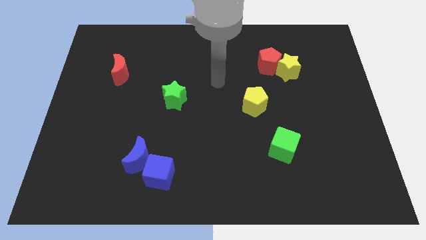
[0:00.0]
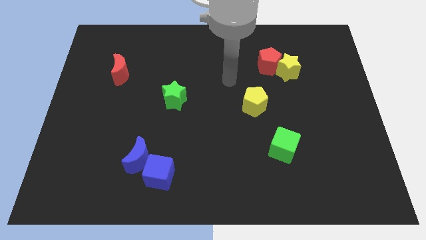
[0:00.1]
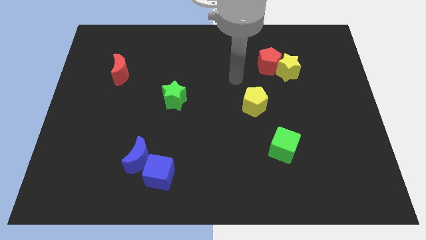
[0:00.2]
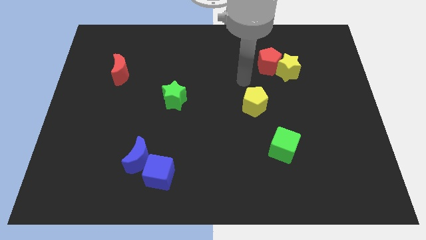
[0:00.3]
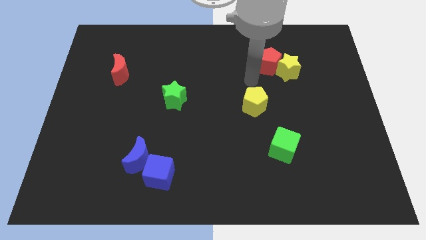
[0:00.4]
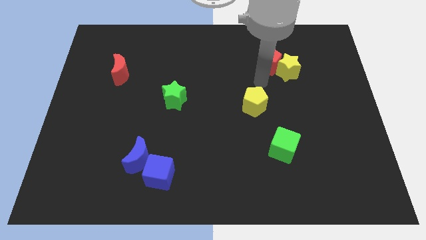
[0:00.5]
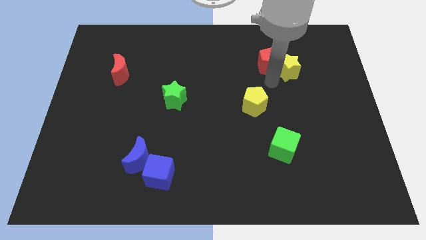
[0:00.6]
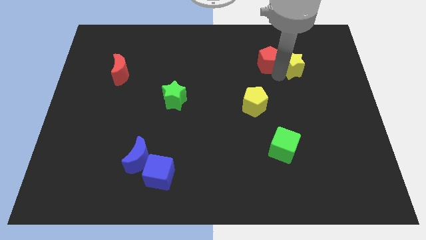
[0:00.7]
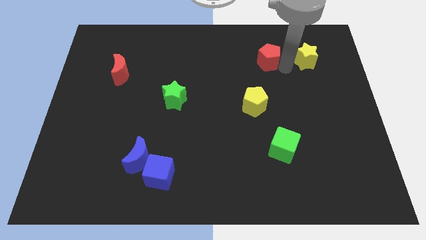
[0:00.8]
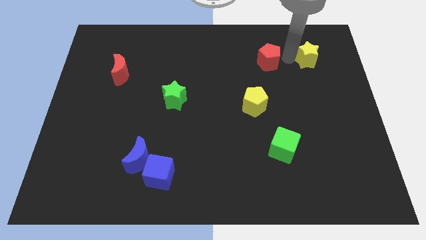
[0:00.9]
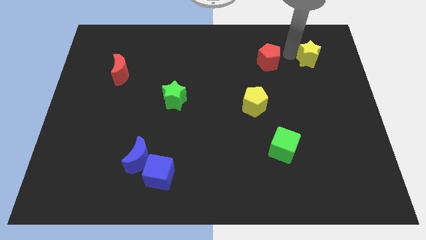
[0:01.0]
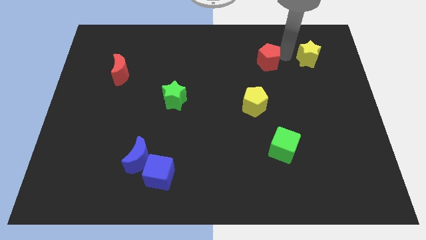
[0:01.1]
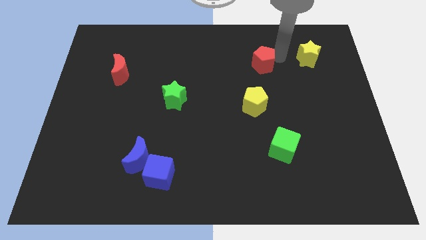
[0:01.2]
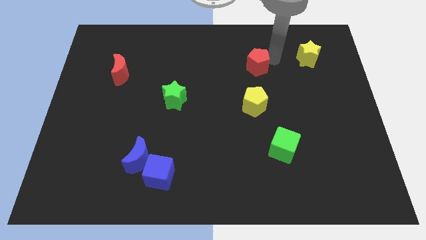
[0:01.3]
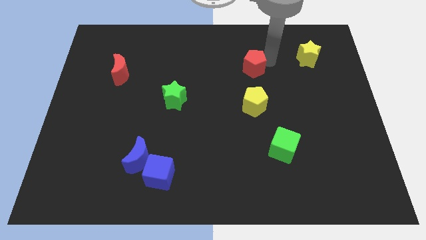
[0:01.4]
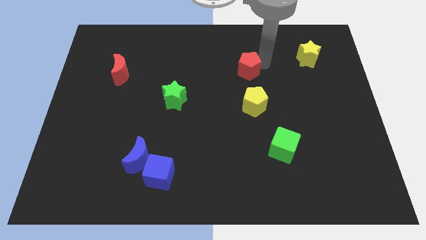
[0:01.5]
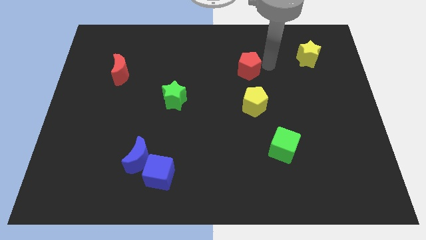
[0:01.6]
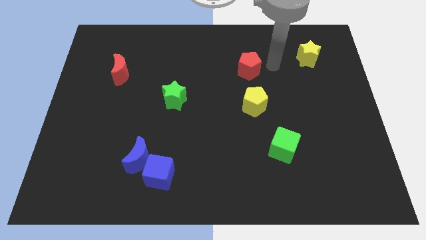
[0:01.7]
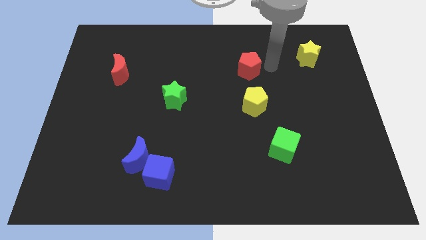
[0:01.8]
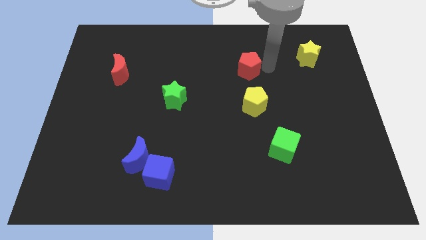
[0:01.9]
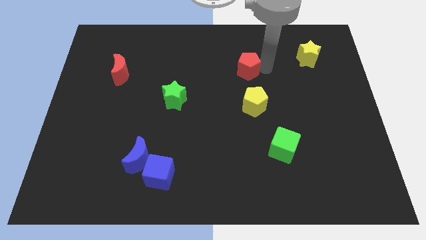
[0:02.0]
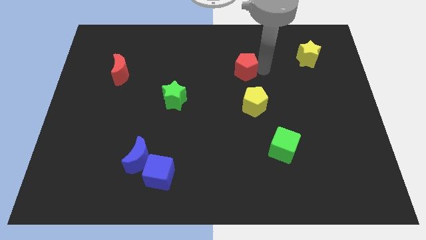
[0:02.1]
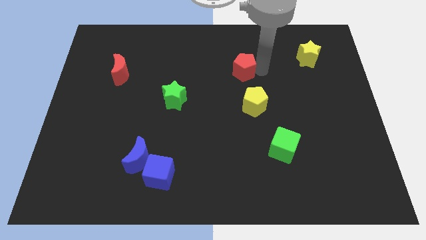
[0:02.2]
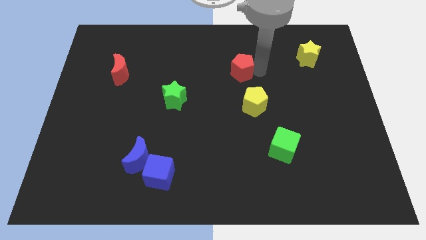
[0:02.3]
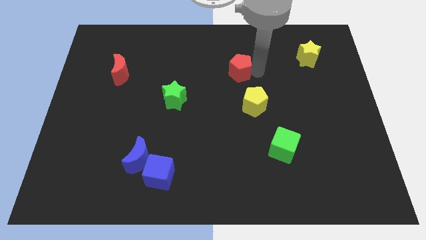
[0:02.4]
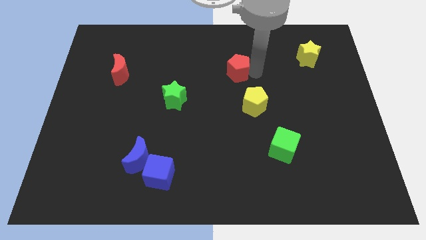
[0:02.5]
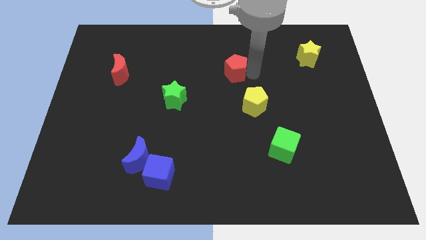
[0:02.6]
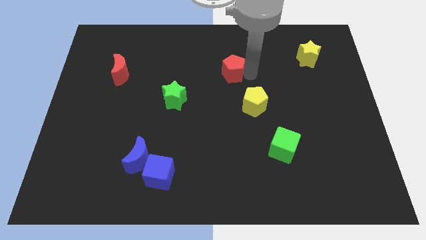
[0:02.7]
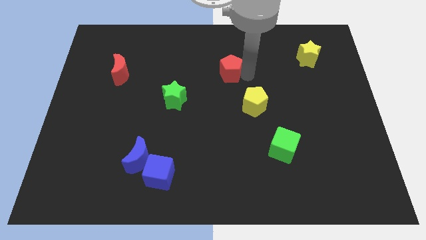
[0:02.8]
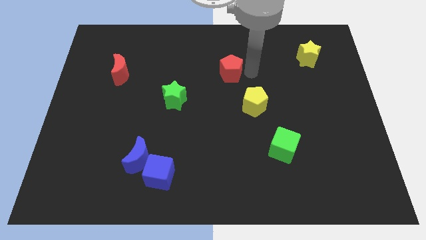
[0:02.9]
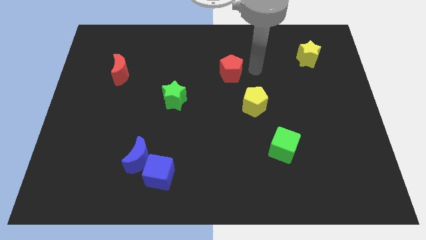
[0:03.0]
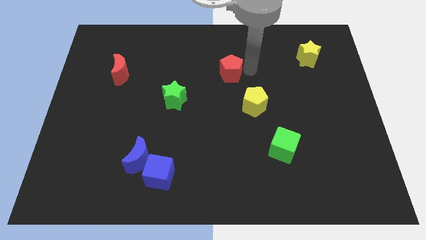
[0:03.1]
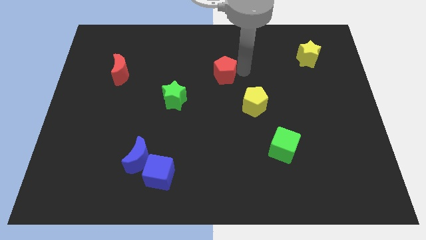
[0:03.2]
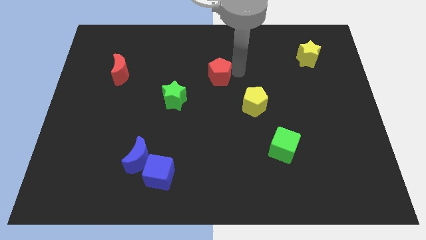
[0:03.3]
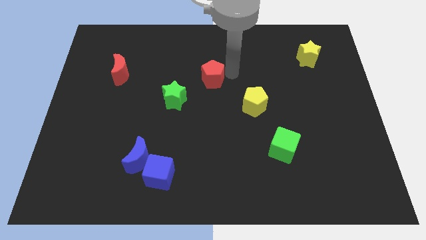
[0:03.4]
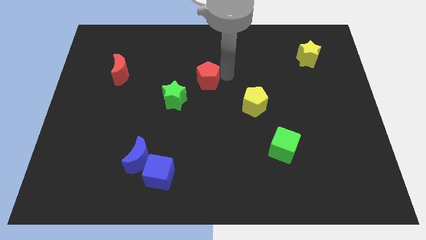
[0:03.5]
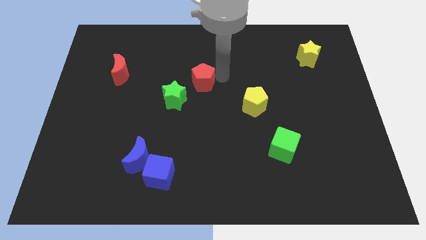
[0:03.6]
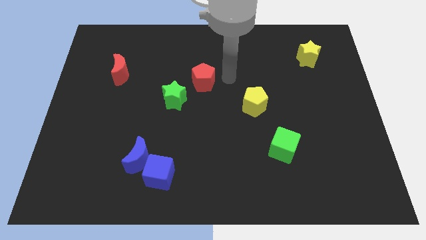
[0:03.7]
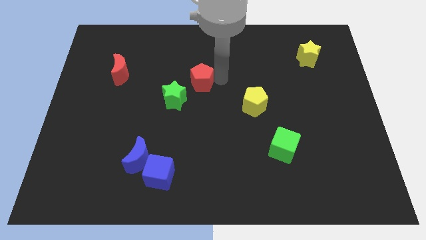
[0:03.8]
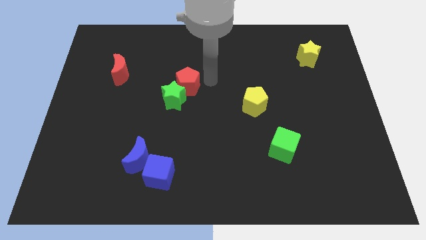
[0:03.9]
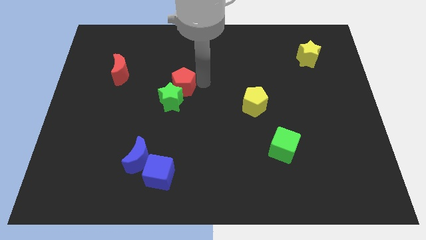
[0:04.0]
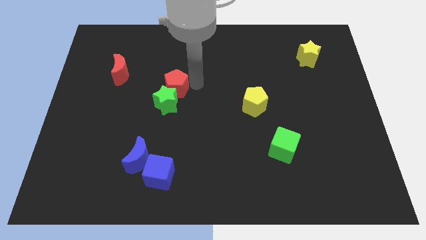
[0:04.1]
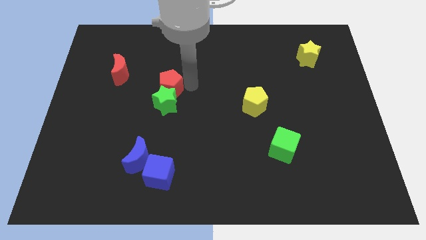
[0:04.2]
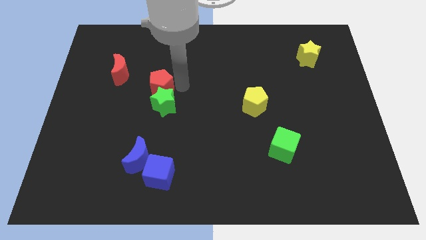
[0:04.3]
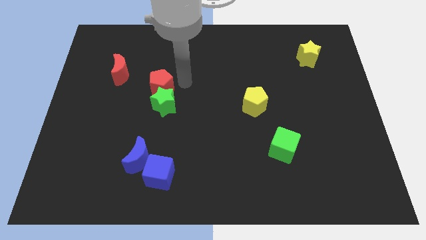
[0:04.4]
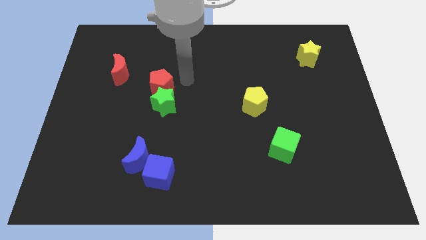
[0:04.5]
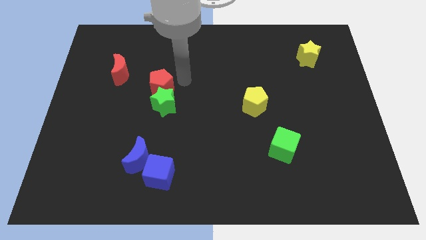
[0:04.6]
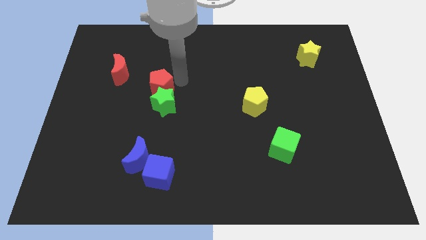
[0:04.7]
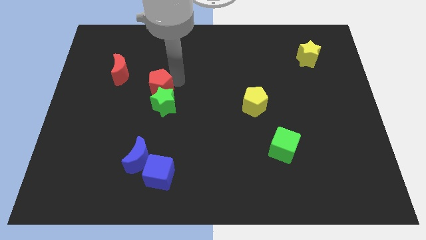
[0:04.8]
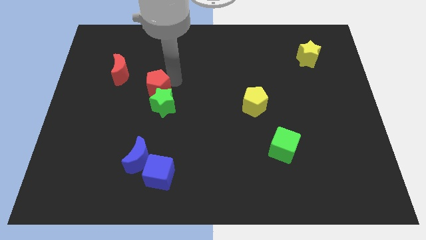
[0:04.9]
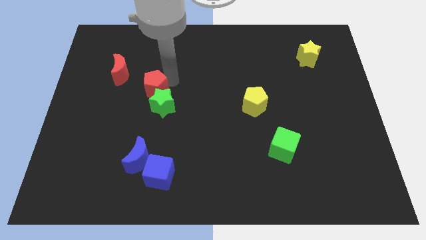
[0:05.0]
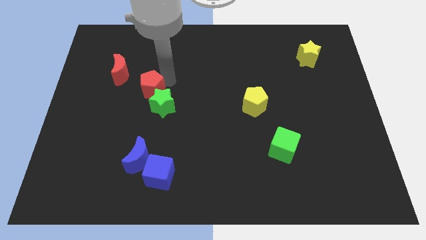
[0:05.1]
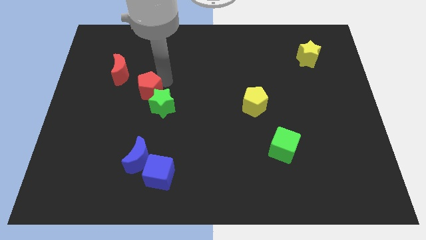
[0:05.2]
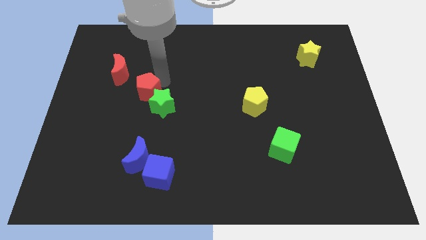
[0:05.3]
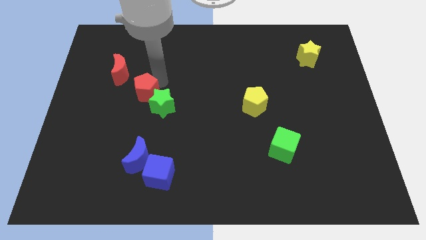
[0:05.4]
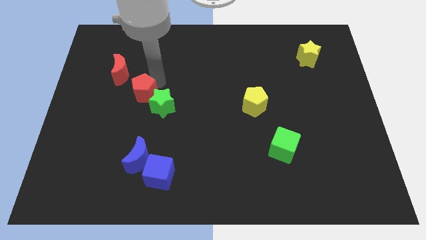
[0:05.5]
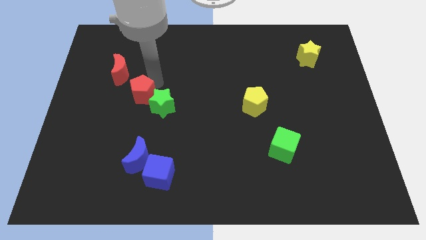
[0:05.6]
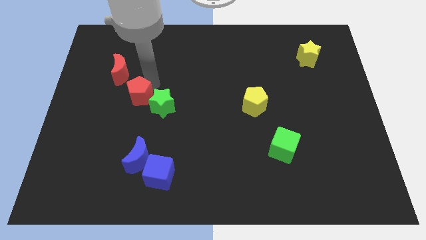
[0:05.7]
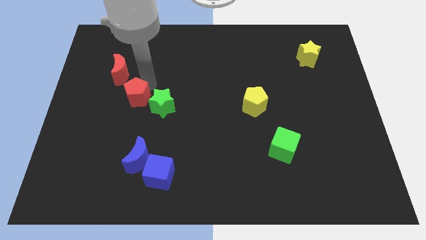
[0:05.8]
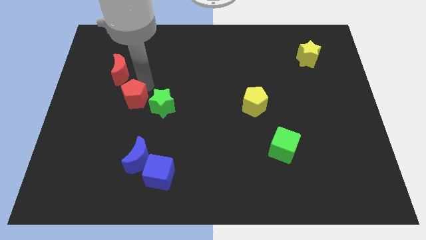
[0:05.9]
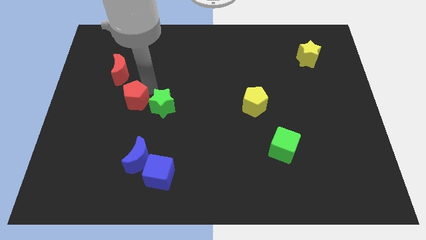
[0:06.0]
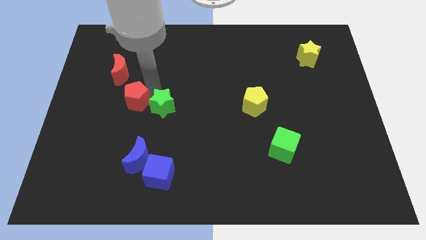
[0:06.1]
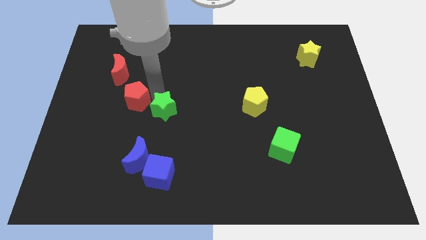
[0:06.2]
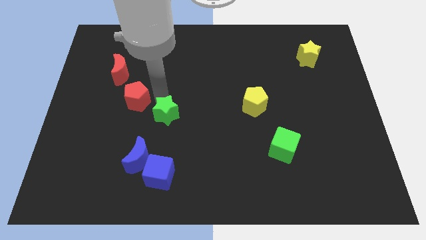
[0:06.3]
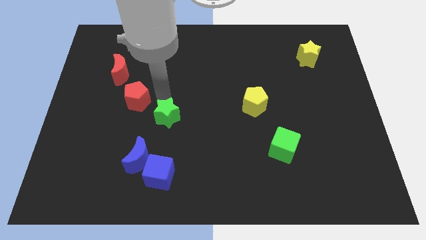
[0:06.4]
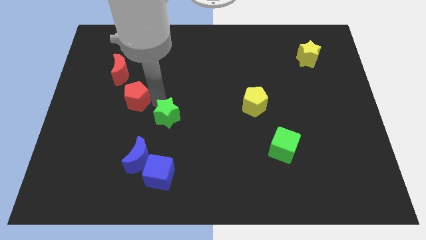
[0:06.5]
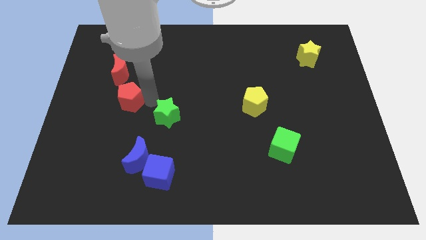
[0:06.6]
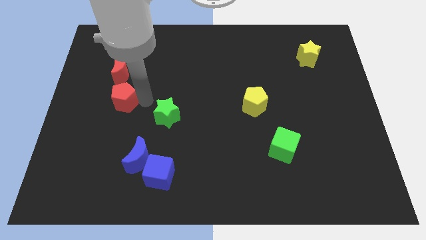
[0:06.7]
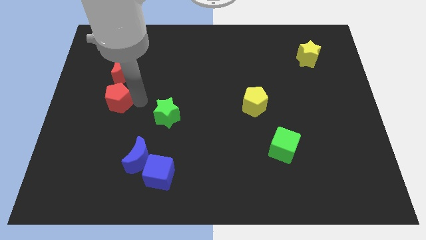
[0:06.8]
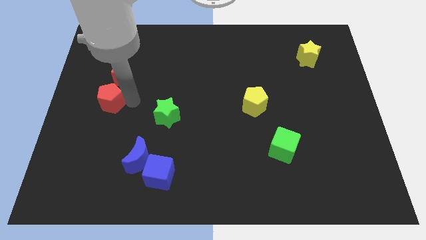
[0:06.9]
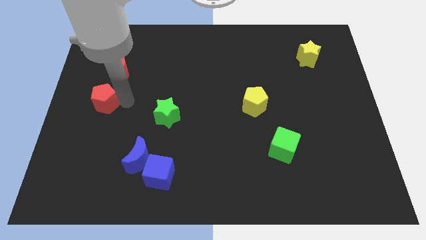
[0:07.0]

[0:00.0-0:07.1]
push the red pentagon to the left side of the board
